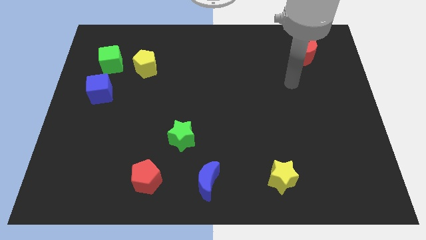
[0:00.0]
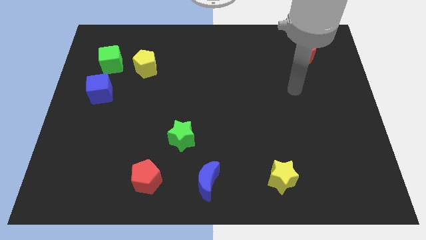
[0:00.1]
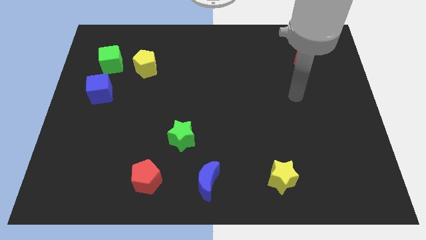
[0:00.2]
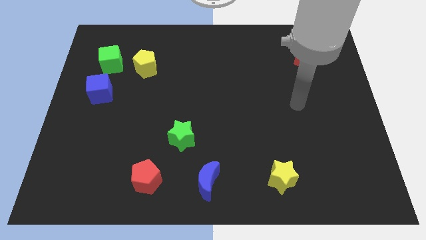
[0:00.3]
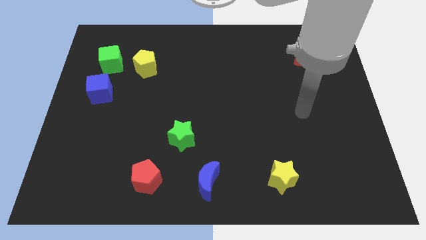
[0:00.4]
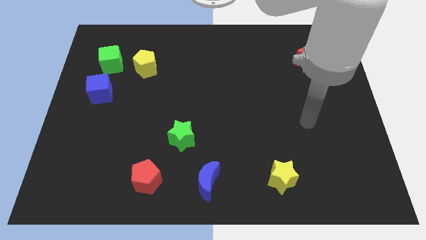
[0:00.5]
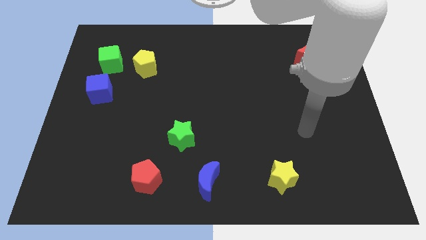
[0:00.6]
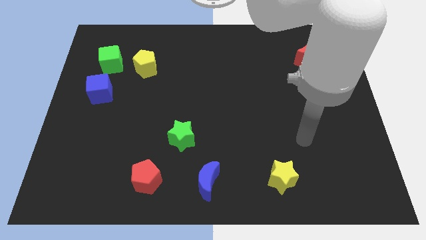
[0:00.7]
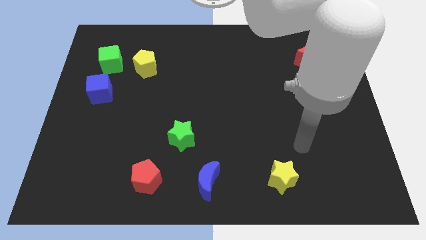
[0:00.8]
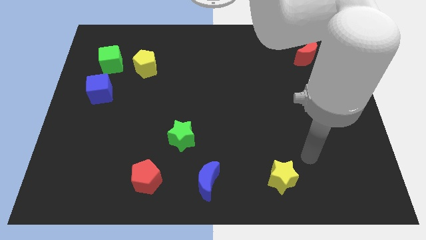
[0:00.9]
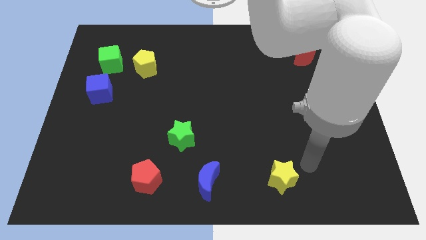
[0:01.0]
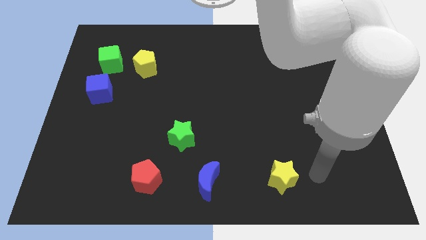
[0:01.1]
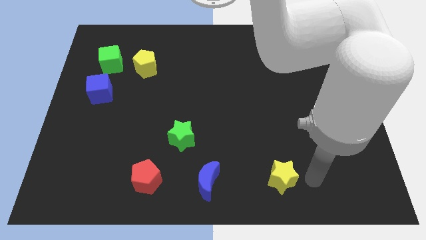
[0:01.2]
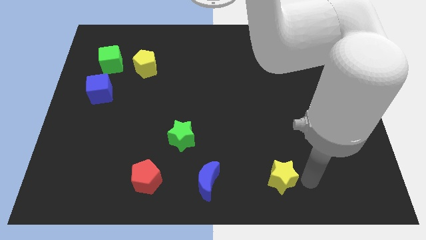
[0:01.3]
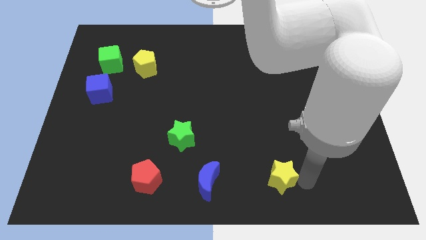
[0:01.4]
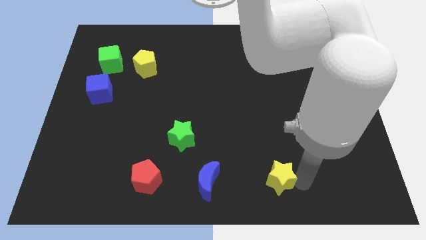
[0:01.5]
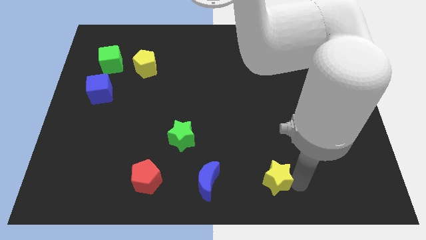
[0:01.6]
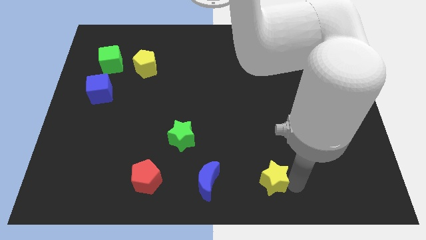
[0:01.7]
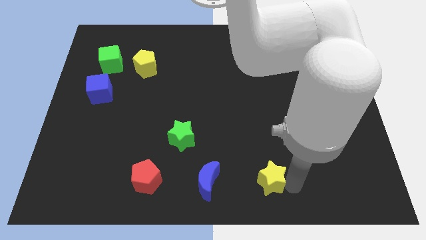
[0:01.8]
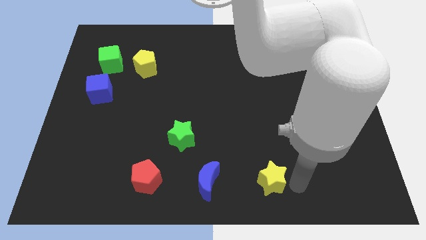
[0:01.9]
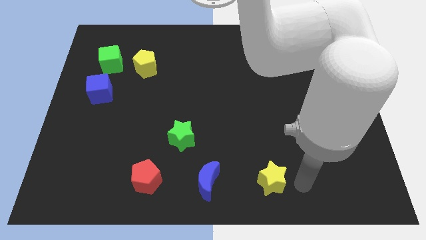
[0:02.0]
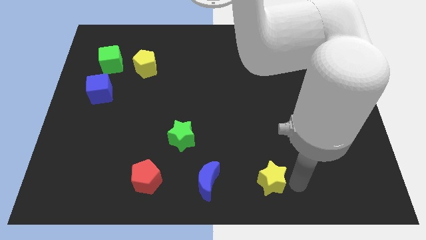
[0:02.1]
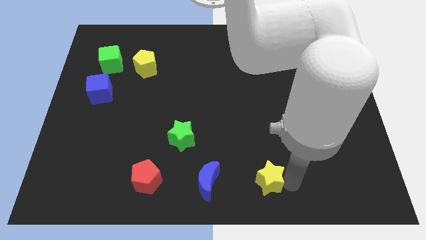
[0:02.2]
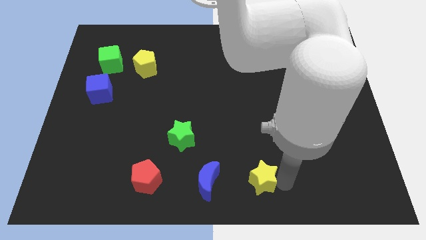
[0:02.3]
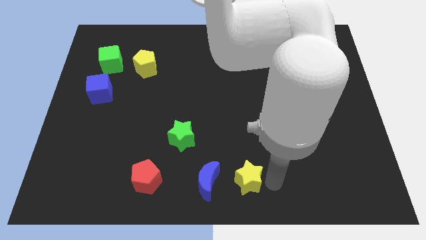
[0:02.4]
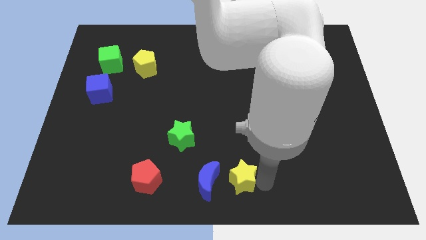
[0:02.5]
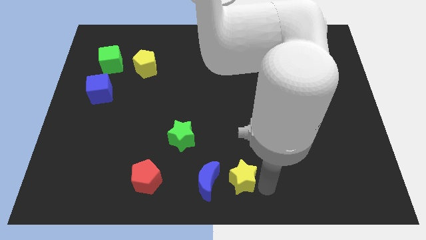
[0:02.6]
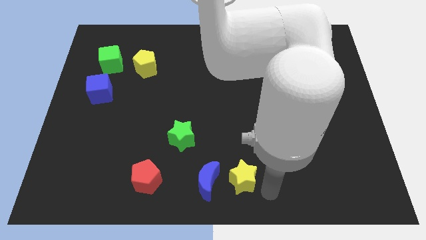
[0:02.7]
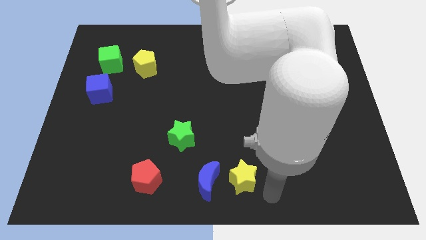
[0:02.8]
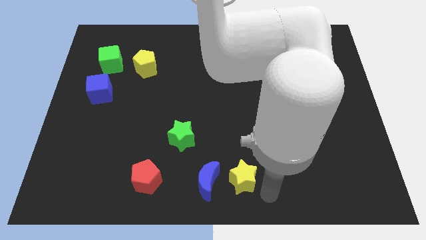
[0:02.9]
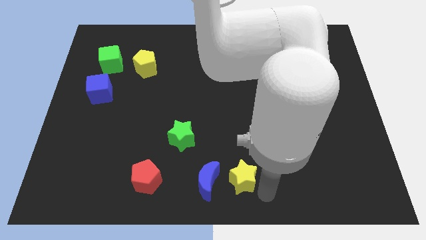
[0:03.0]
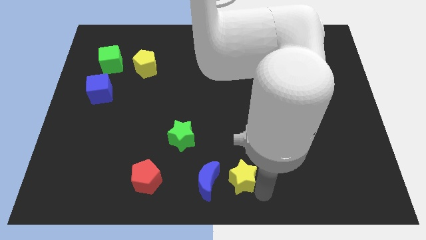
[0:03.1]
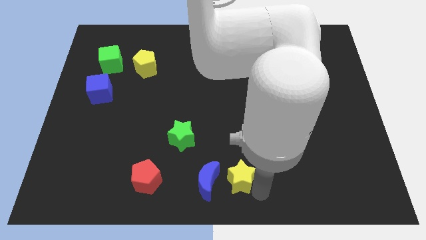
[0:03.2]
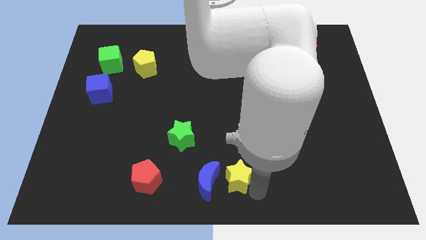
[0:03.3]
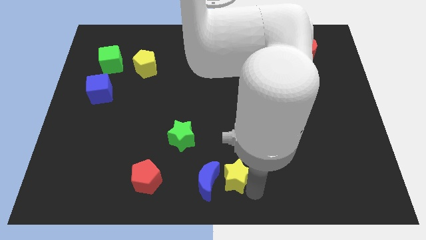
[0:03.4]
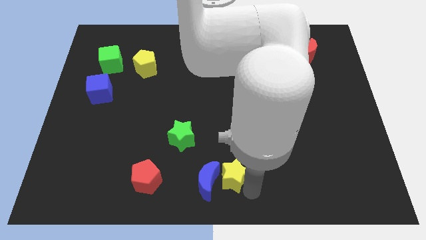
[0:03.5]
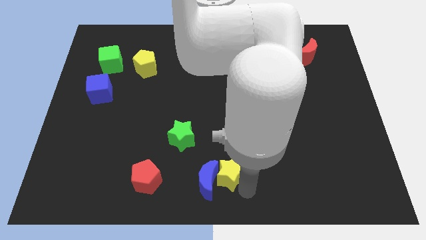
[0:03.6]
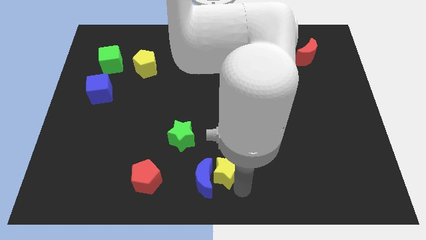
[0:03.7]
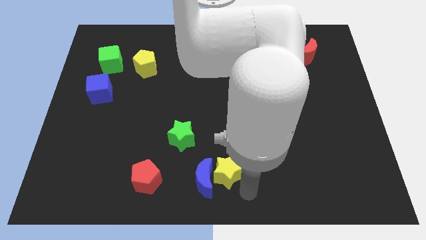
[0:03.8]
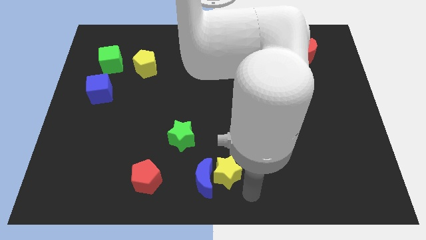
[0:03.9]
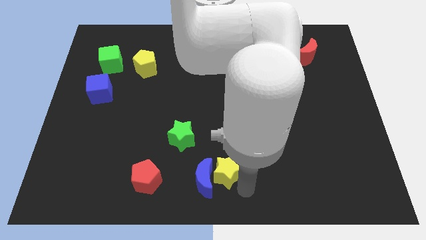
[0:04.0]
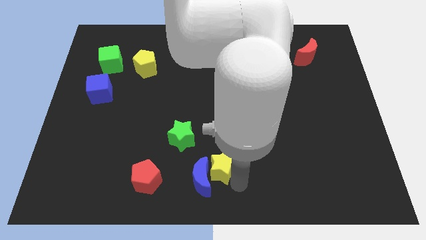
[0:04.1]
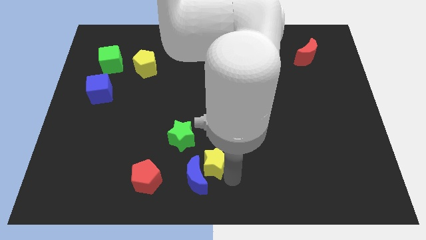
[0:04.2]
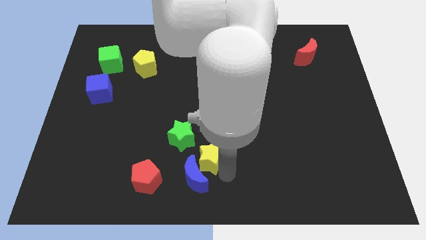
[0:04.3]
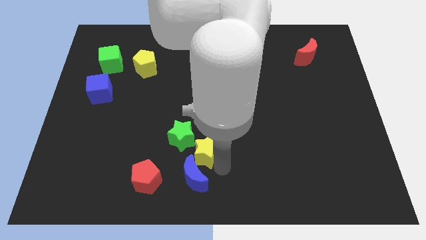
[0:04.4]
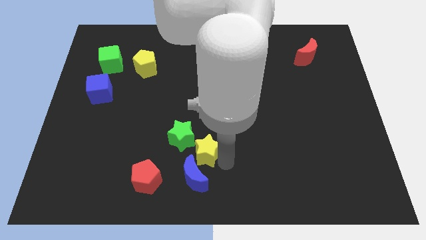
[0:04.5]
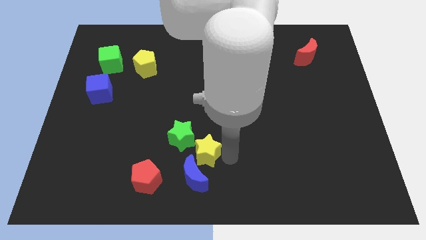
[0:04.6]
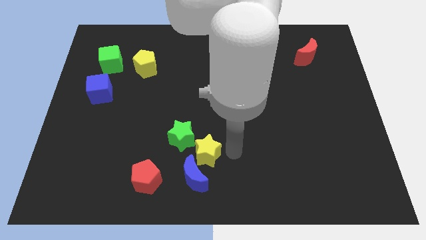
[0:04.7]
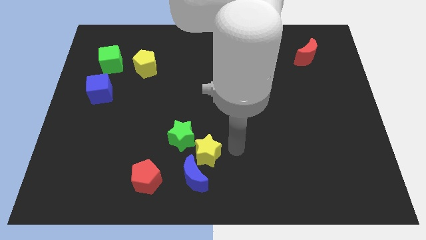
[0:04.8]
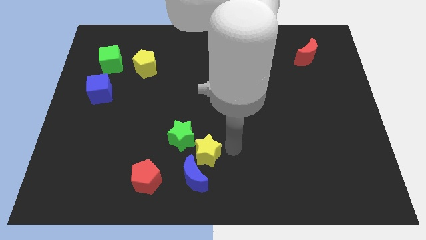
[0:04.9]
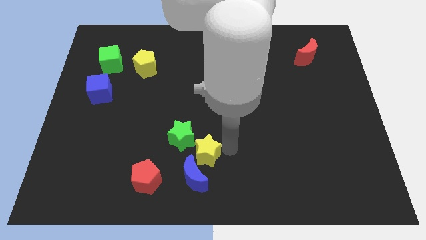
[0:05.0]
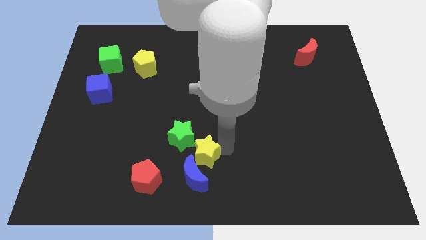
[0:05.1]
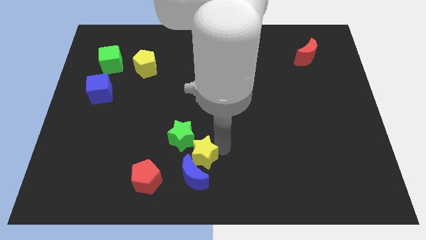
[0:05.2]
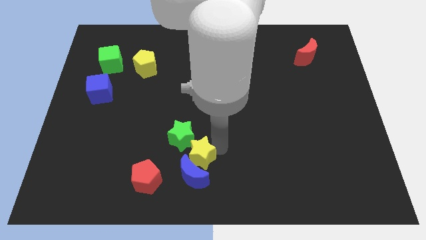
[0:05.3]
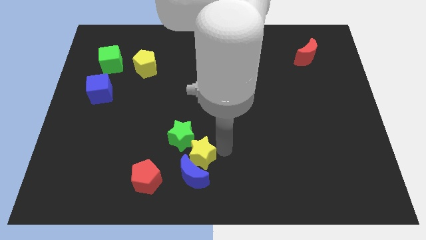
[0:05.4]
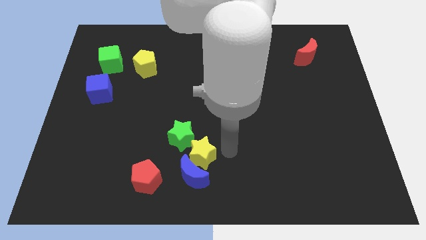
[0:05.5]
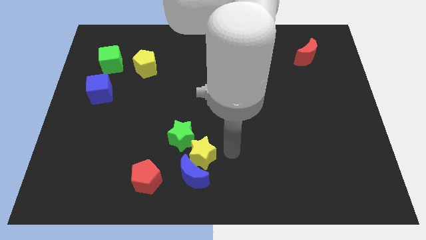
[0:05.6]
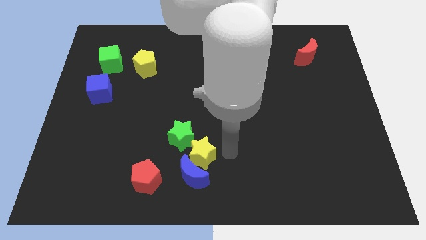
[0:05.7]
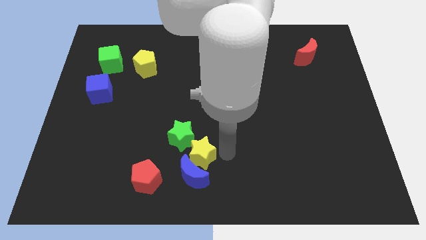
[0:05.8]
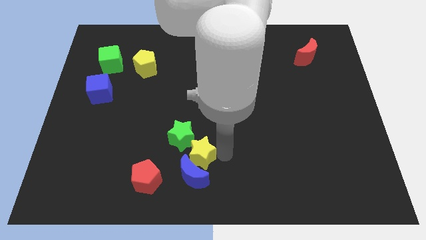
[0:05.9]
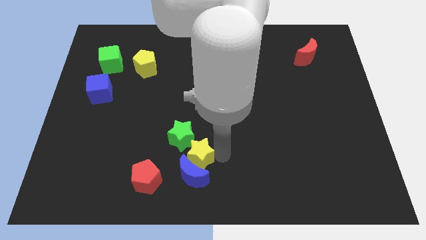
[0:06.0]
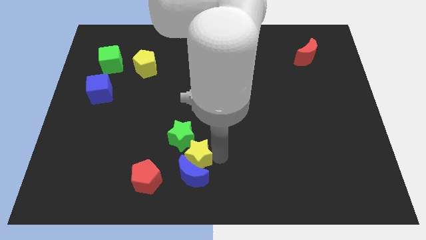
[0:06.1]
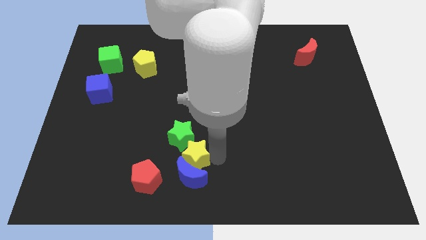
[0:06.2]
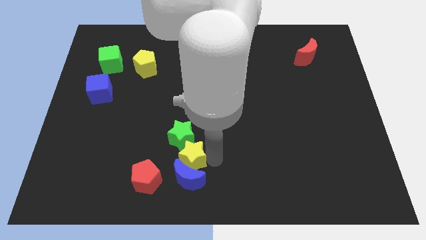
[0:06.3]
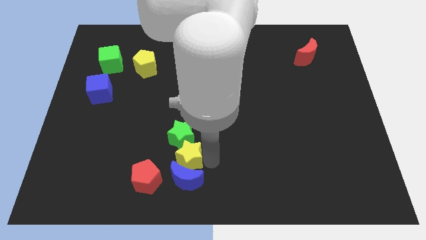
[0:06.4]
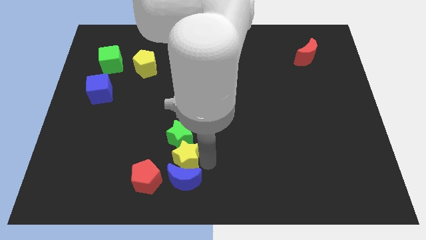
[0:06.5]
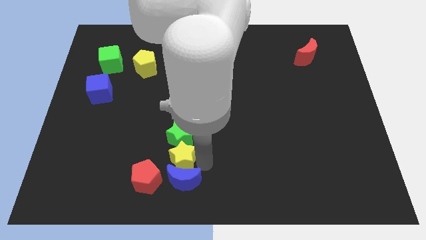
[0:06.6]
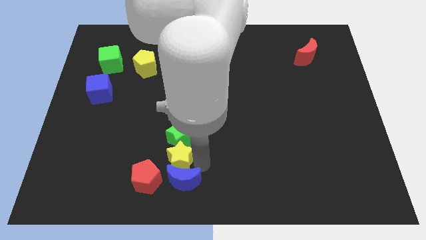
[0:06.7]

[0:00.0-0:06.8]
slide the yellow star left

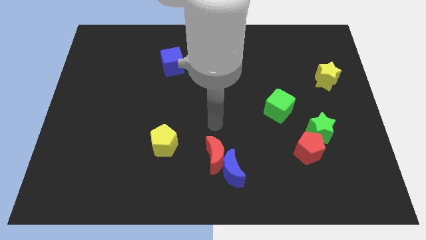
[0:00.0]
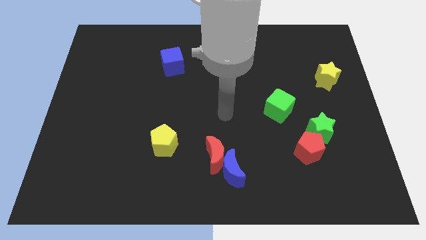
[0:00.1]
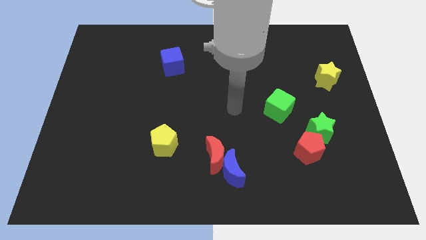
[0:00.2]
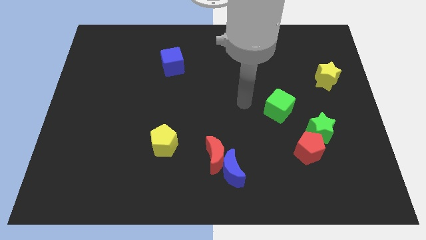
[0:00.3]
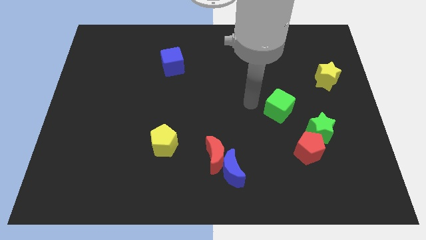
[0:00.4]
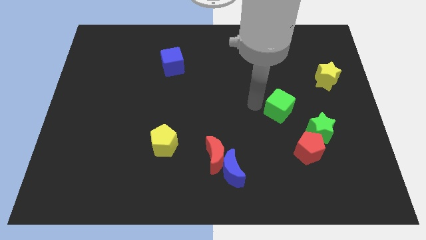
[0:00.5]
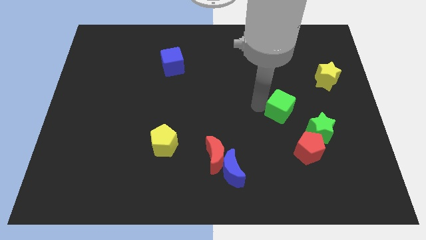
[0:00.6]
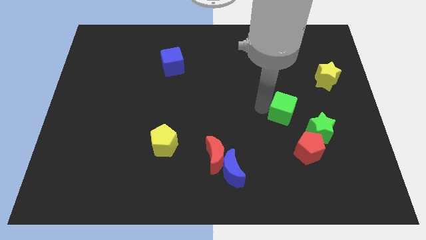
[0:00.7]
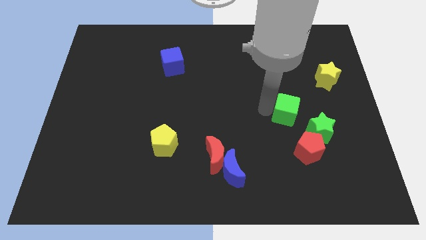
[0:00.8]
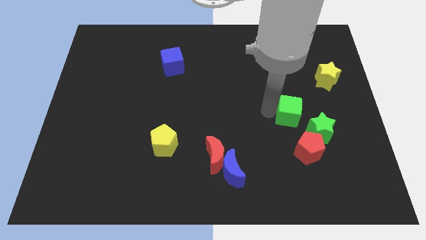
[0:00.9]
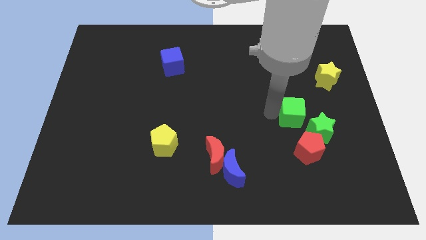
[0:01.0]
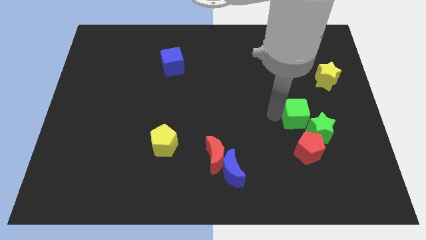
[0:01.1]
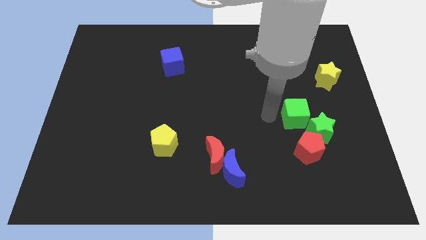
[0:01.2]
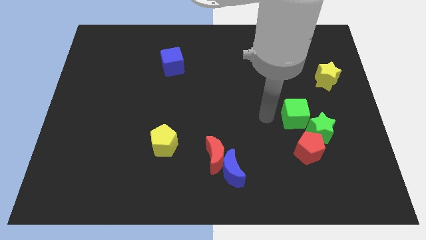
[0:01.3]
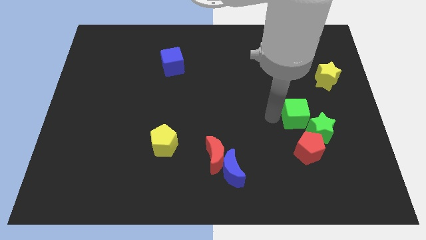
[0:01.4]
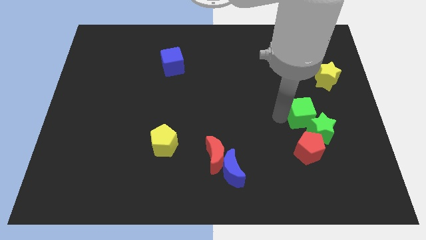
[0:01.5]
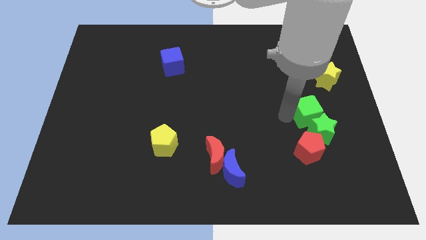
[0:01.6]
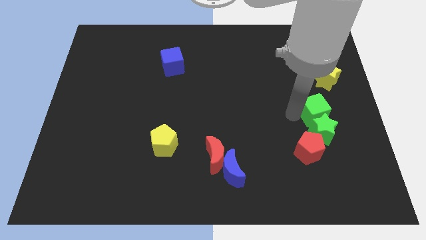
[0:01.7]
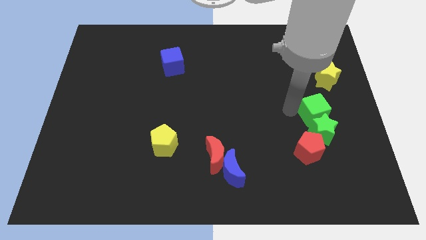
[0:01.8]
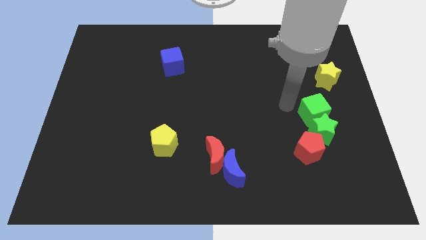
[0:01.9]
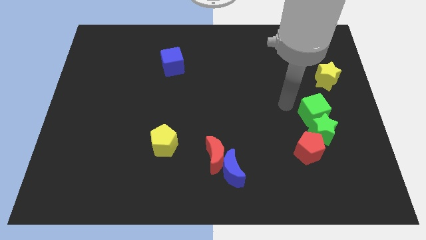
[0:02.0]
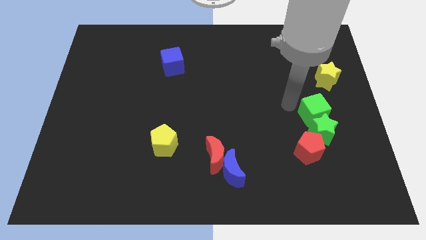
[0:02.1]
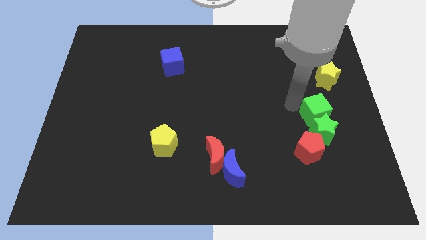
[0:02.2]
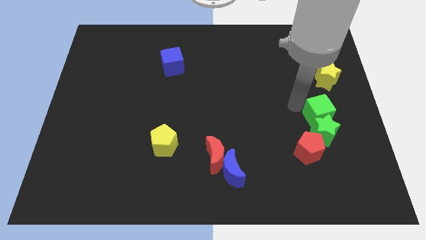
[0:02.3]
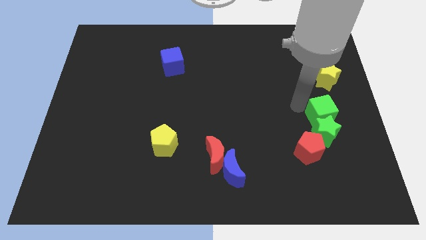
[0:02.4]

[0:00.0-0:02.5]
slightly push the green cube diagonally down and right
